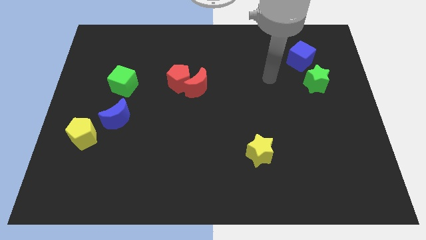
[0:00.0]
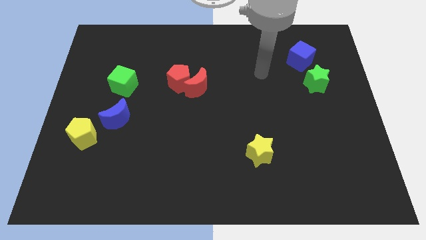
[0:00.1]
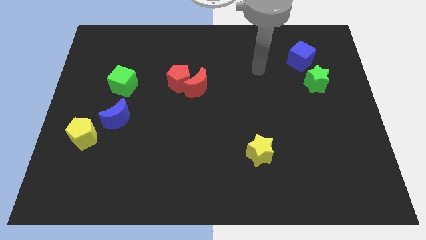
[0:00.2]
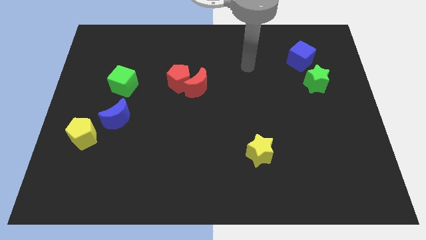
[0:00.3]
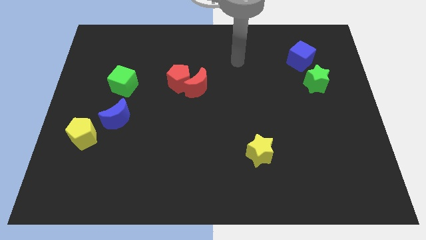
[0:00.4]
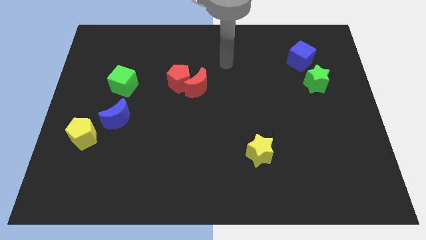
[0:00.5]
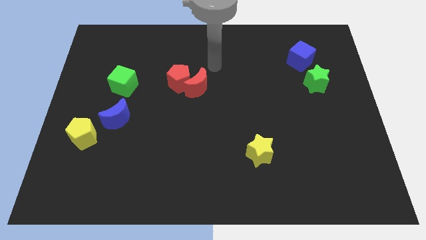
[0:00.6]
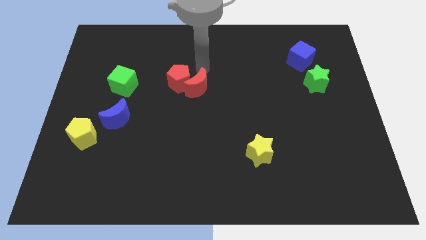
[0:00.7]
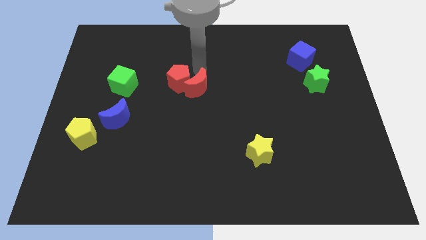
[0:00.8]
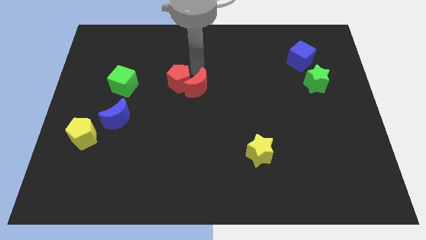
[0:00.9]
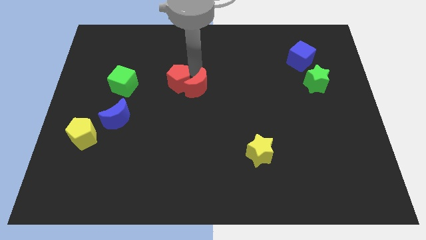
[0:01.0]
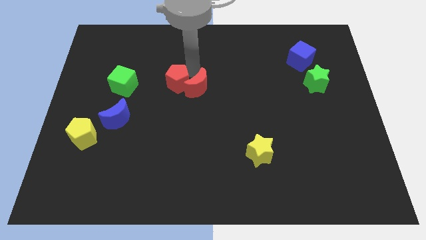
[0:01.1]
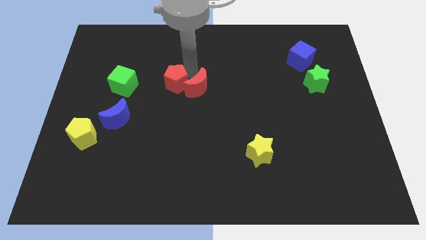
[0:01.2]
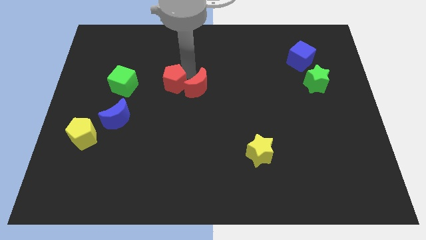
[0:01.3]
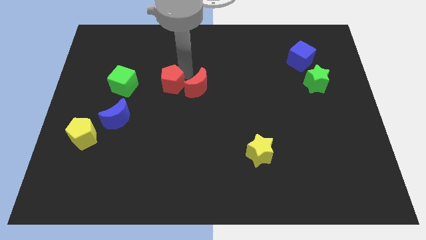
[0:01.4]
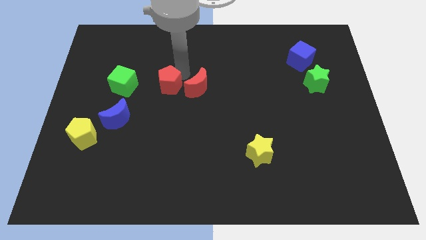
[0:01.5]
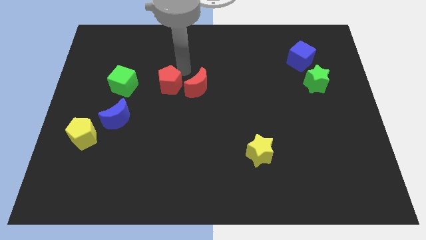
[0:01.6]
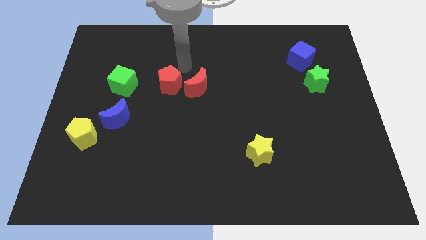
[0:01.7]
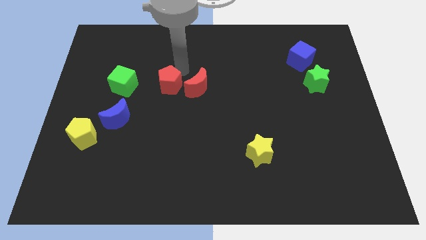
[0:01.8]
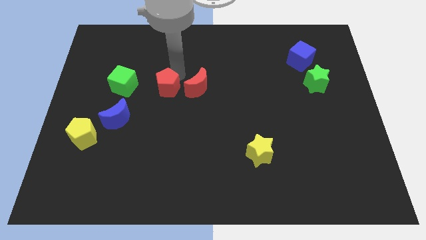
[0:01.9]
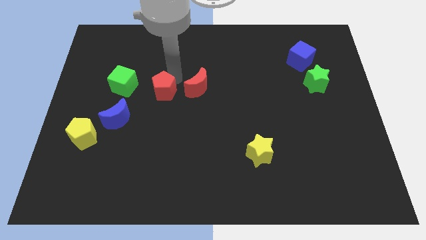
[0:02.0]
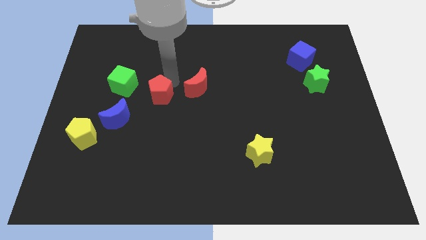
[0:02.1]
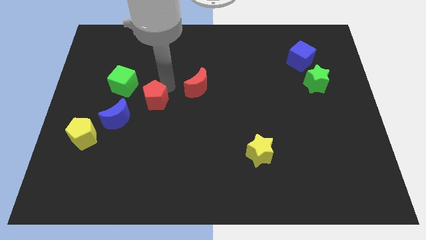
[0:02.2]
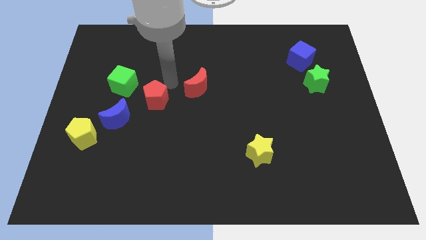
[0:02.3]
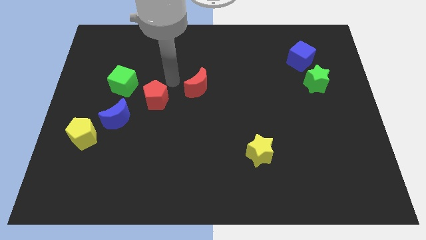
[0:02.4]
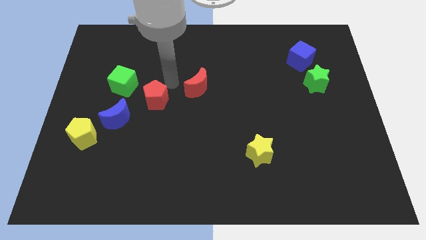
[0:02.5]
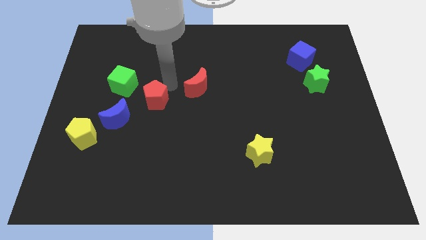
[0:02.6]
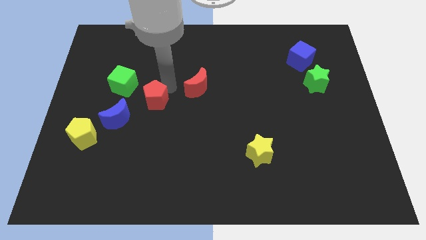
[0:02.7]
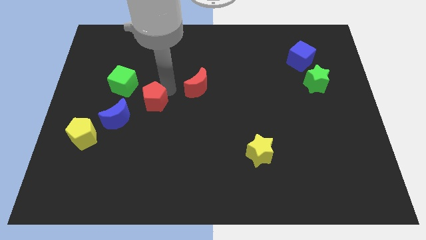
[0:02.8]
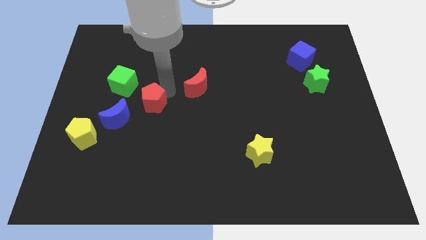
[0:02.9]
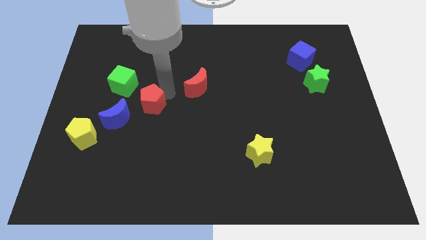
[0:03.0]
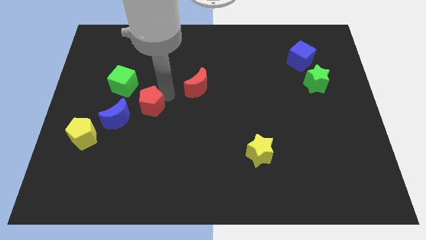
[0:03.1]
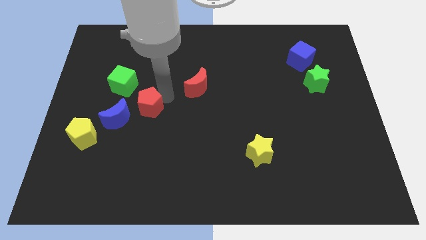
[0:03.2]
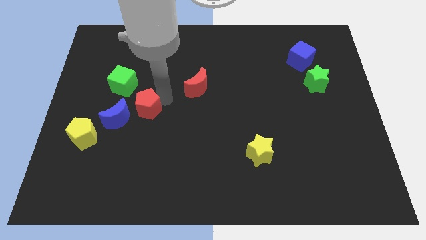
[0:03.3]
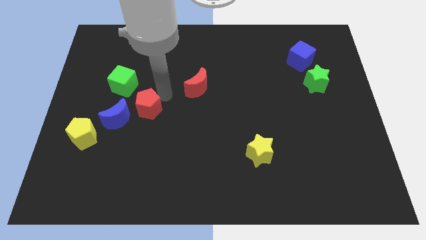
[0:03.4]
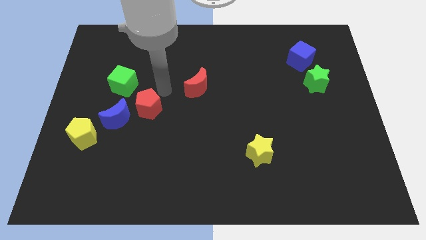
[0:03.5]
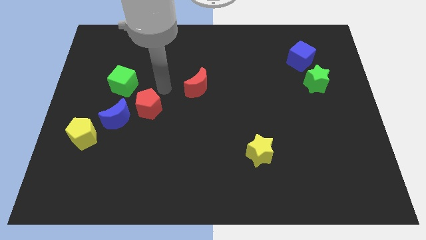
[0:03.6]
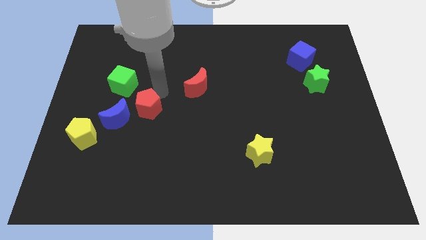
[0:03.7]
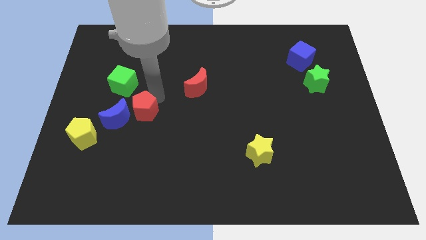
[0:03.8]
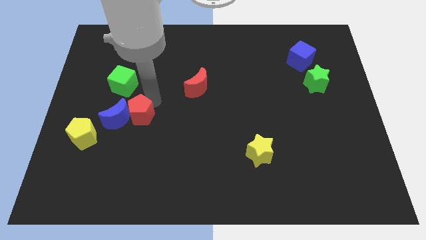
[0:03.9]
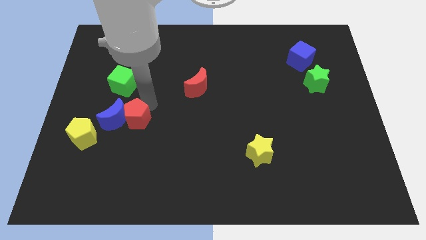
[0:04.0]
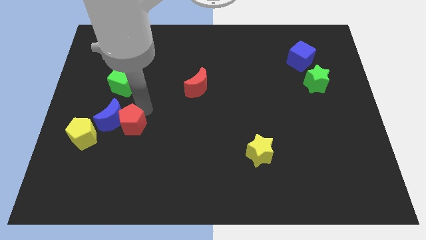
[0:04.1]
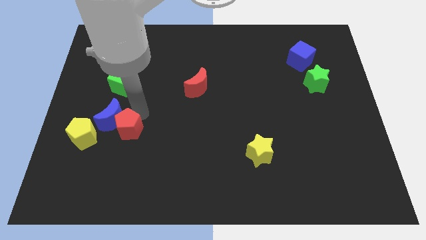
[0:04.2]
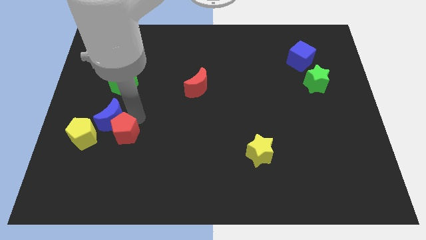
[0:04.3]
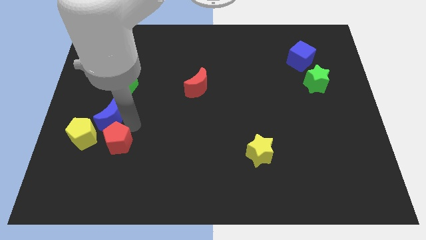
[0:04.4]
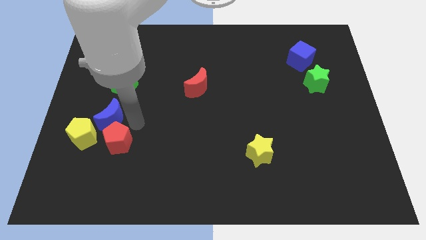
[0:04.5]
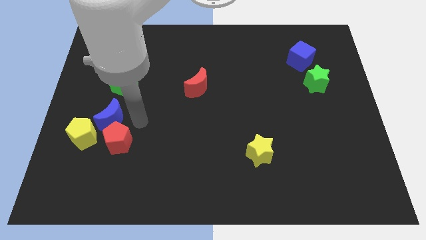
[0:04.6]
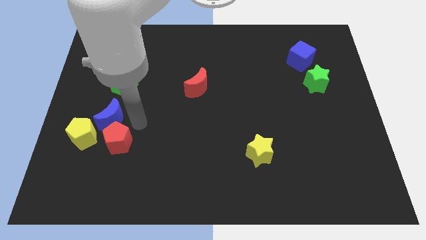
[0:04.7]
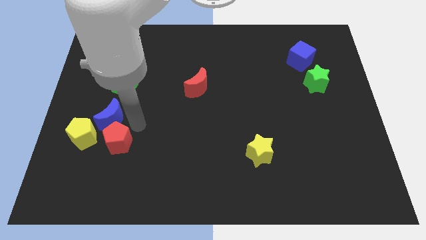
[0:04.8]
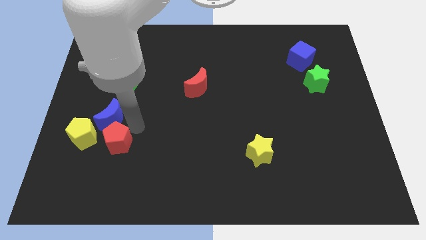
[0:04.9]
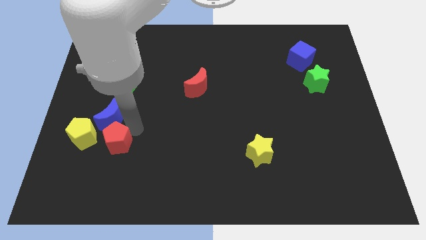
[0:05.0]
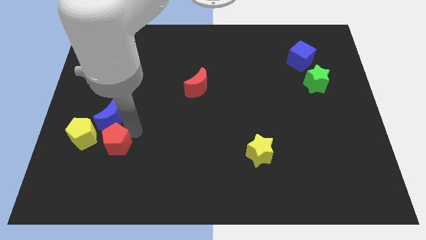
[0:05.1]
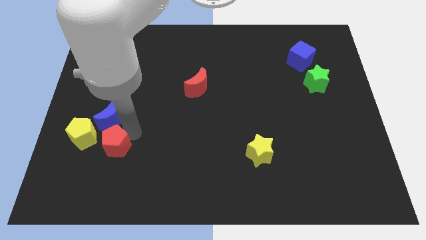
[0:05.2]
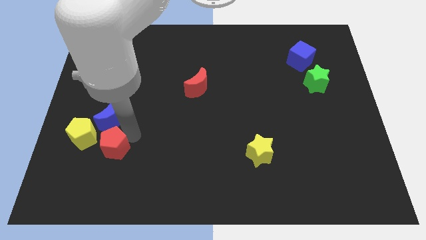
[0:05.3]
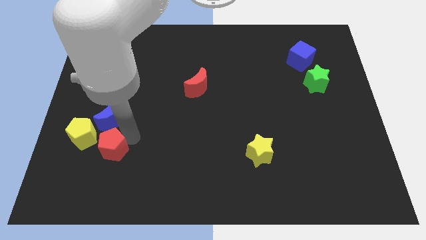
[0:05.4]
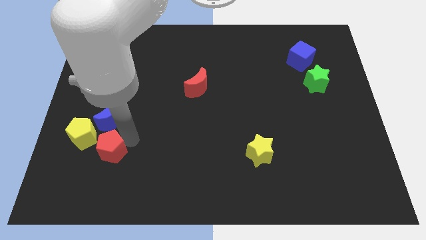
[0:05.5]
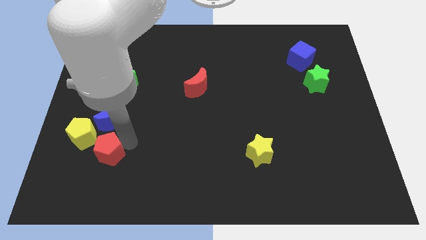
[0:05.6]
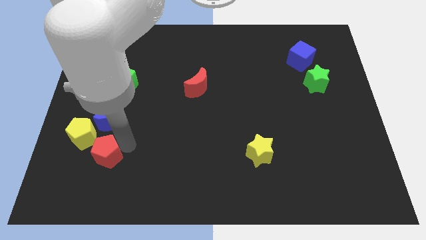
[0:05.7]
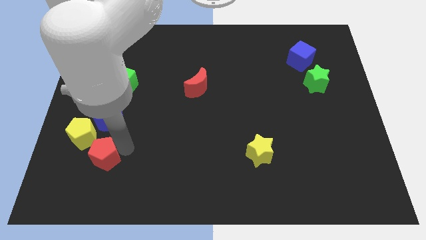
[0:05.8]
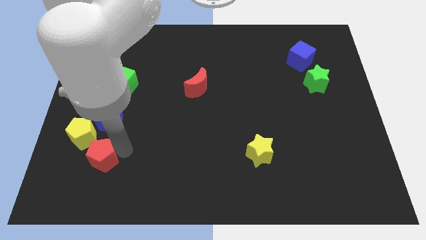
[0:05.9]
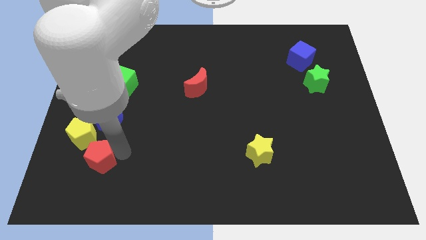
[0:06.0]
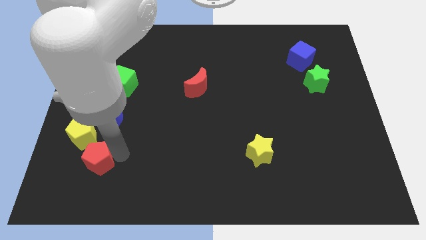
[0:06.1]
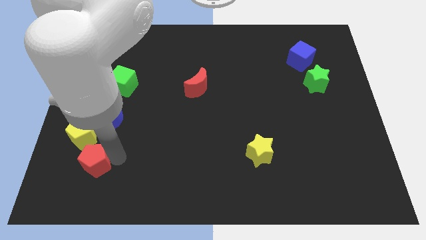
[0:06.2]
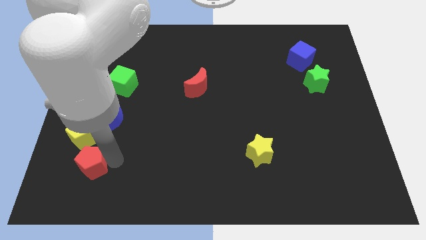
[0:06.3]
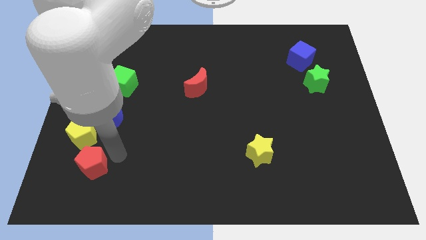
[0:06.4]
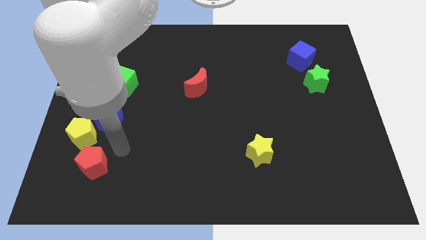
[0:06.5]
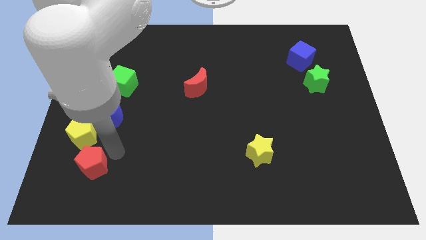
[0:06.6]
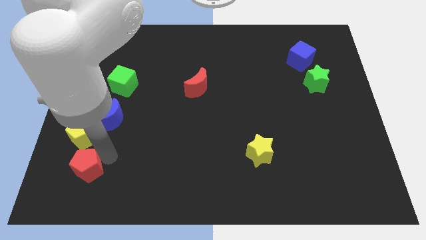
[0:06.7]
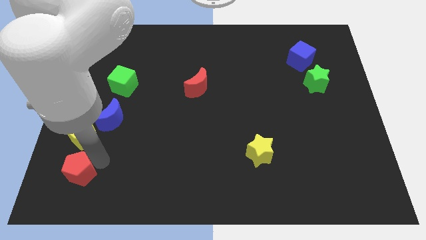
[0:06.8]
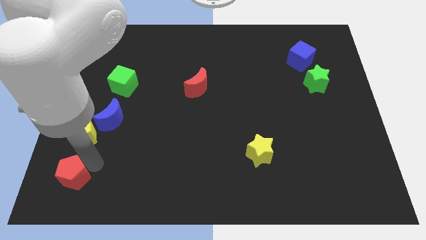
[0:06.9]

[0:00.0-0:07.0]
push the red pentagon to the bottom left
